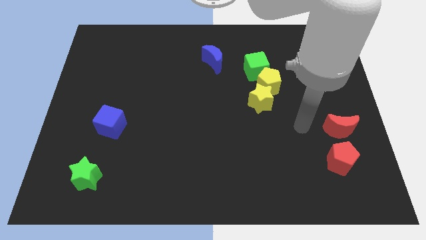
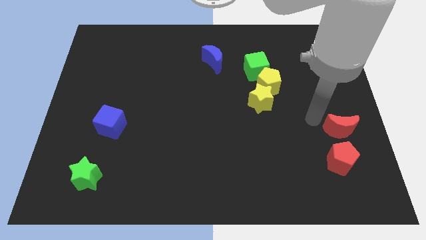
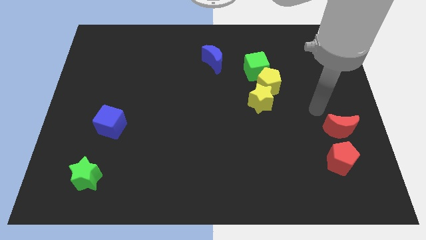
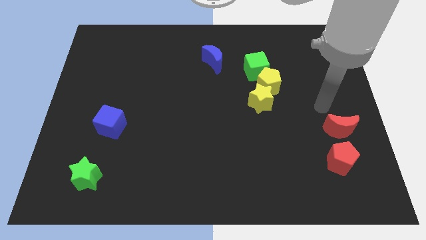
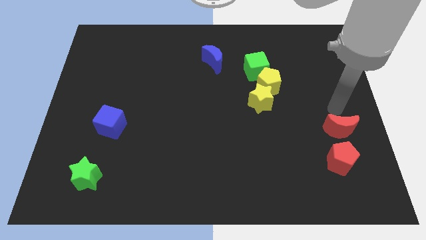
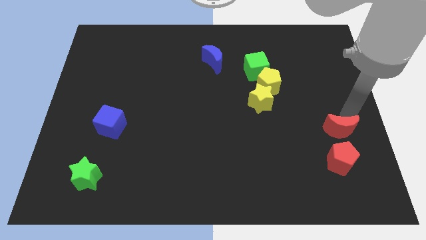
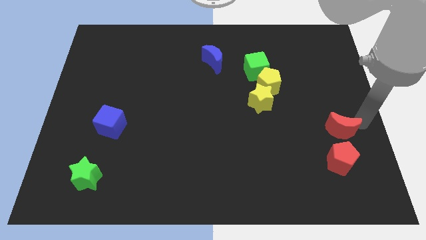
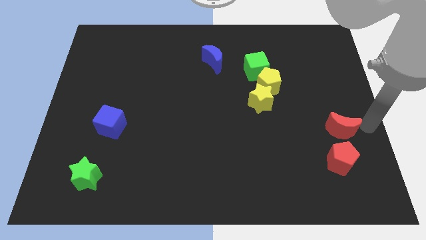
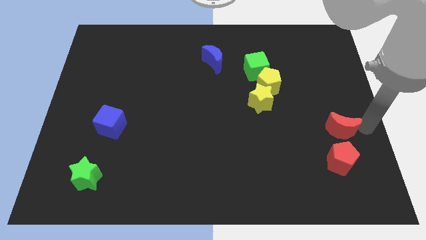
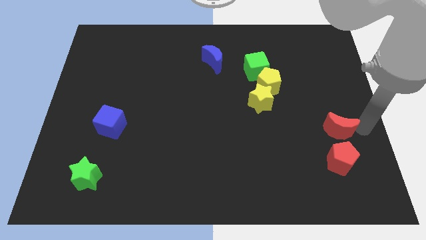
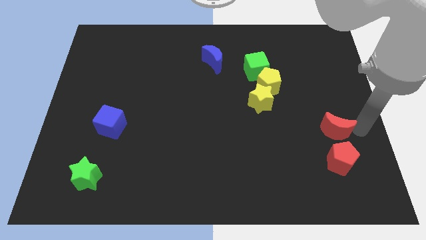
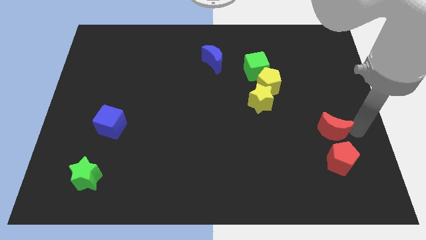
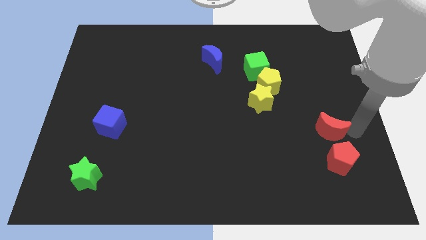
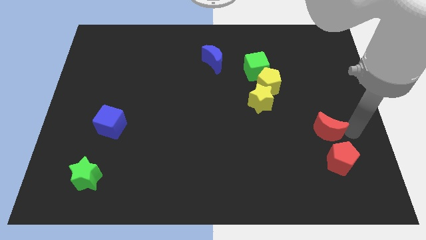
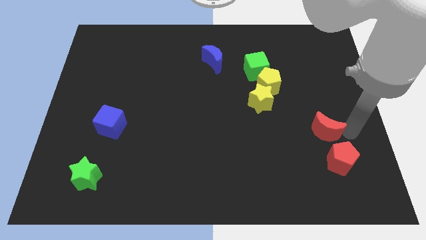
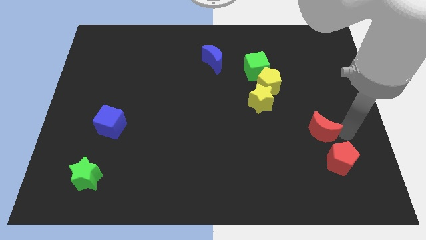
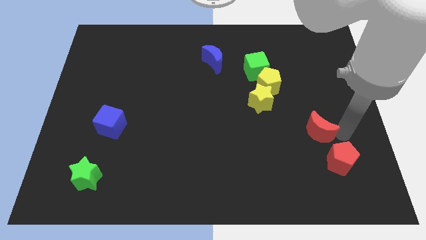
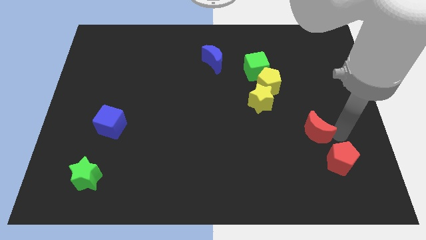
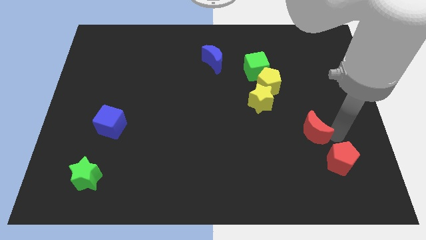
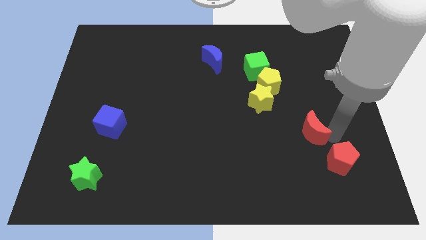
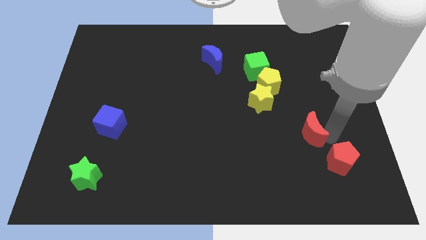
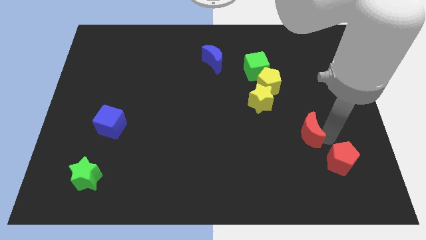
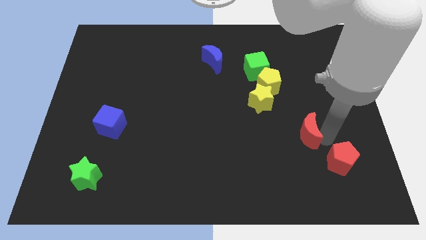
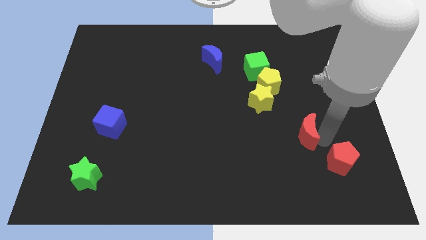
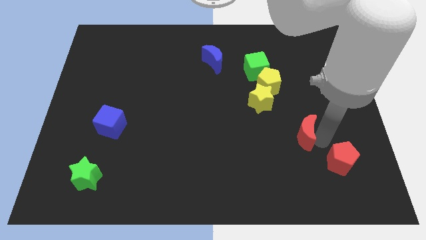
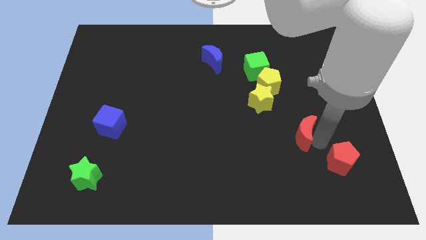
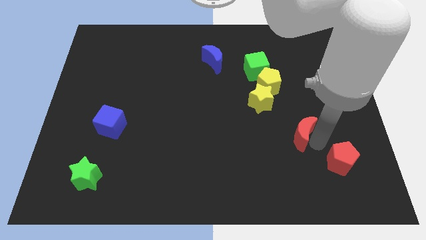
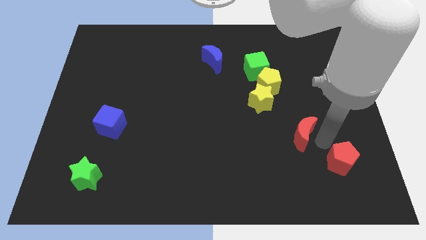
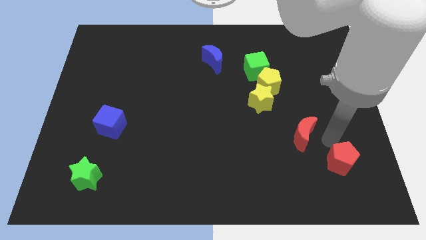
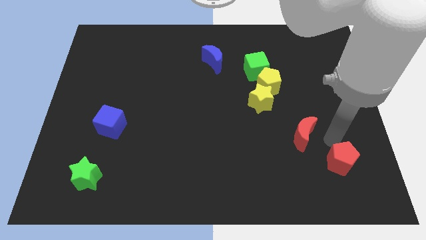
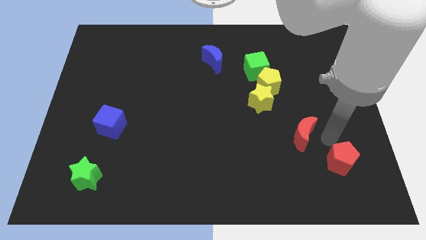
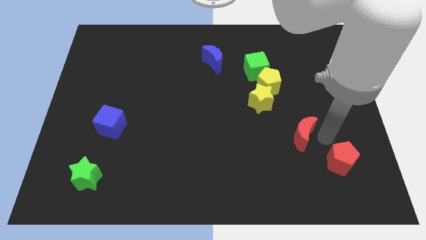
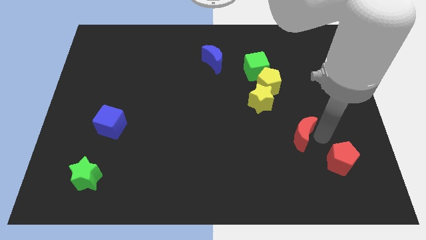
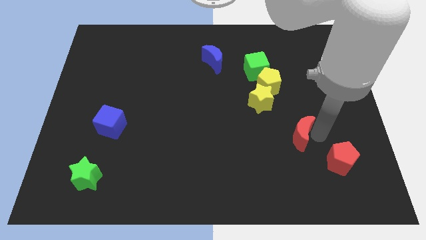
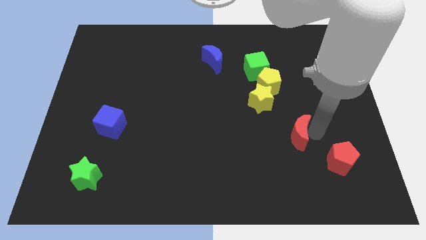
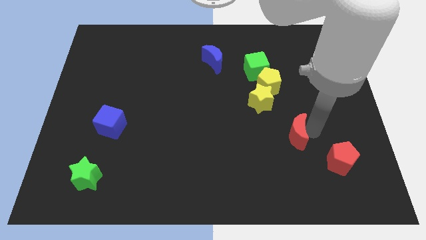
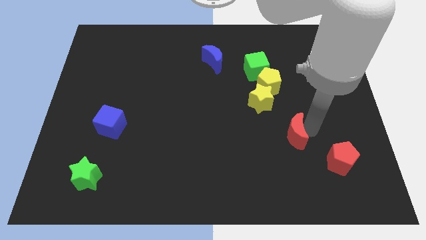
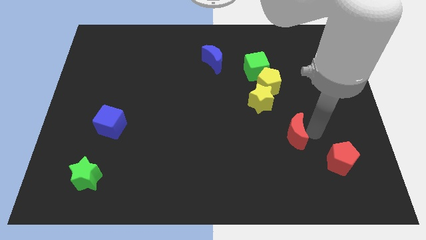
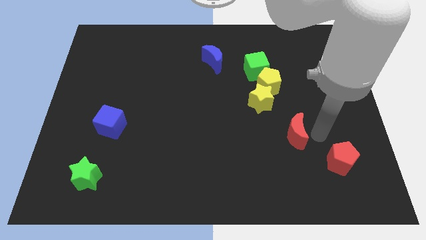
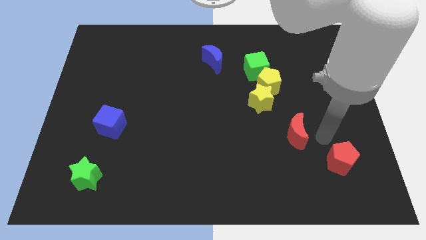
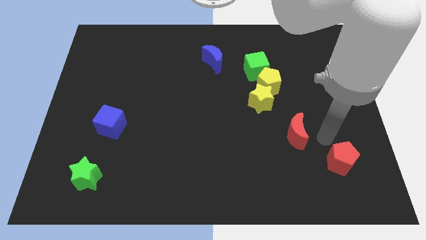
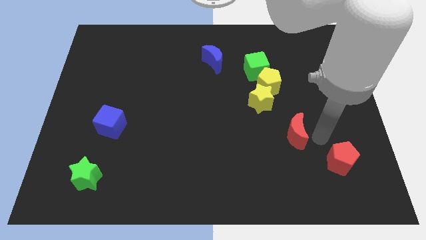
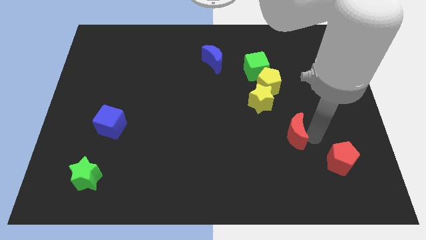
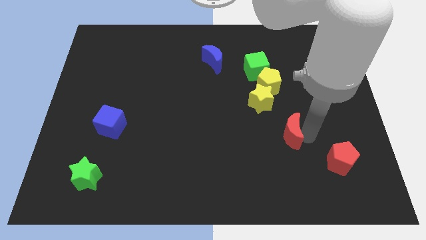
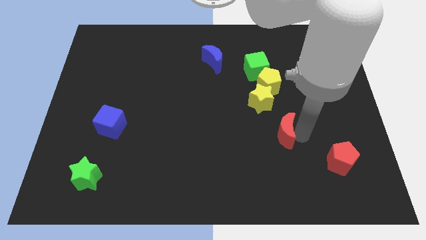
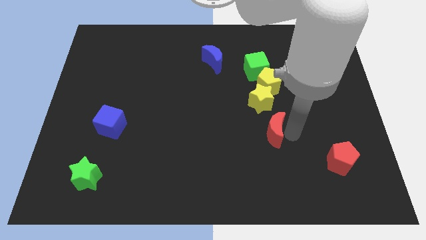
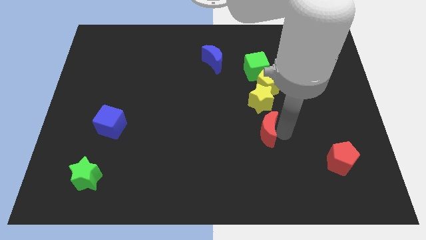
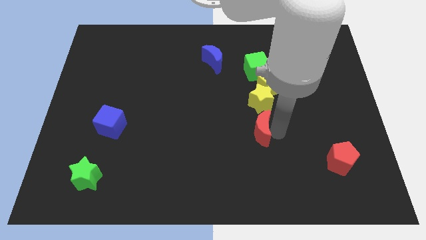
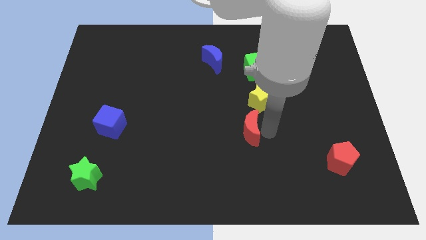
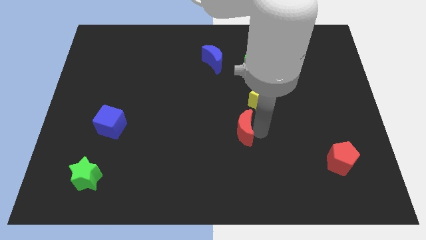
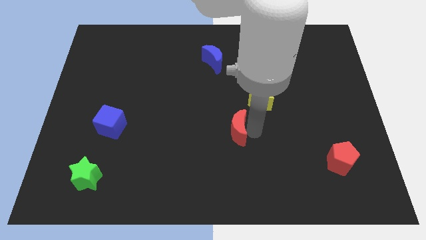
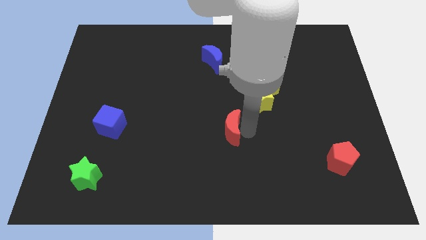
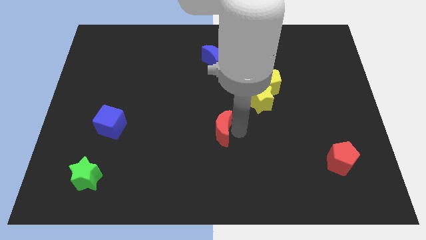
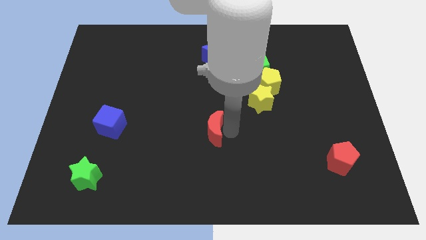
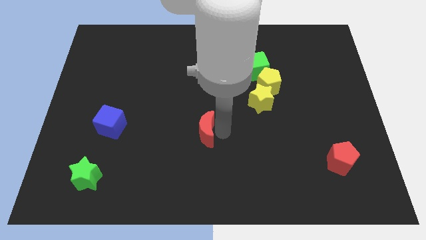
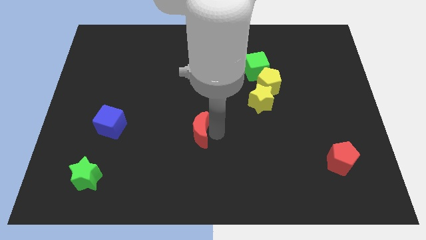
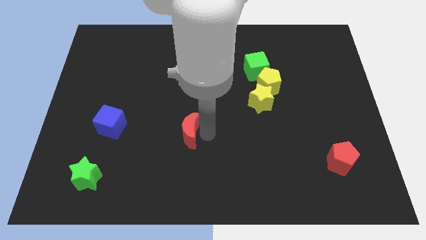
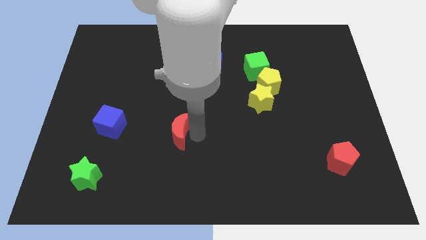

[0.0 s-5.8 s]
move the red moon just right of the blue cube

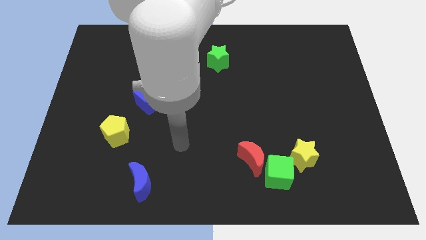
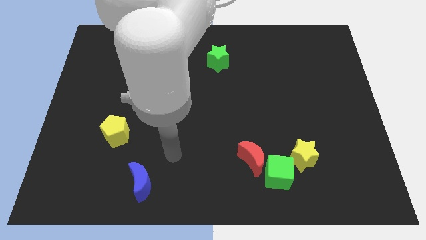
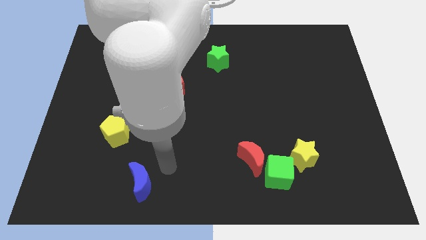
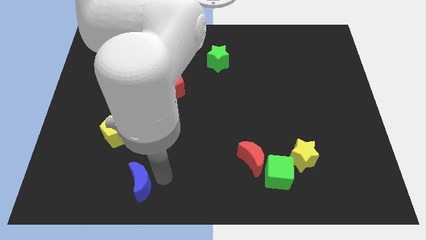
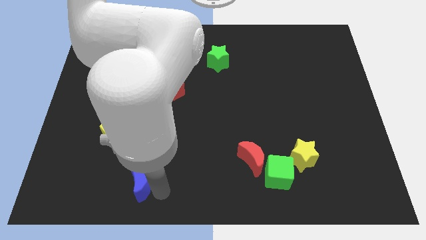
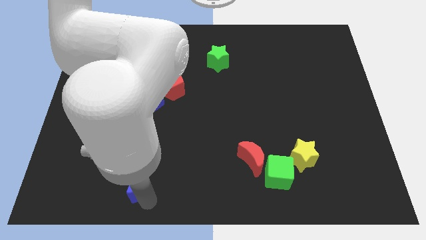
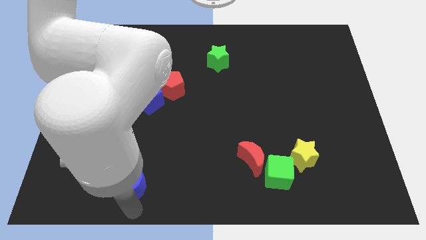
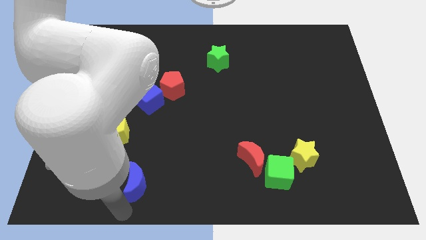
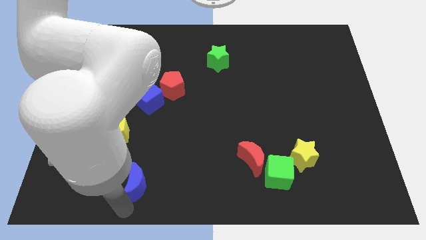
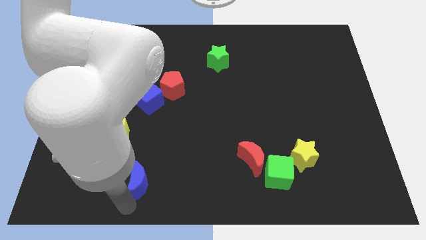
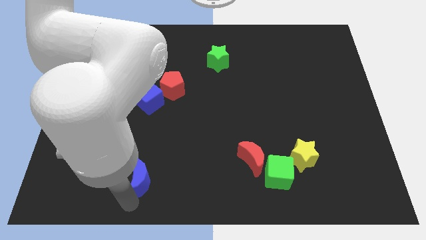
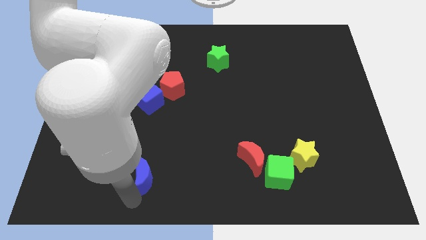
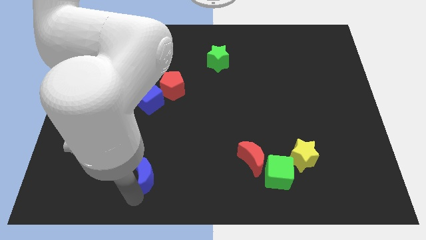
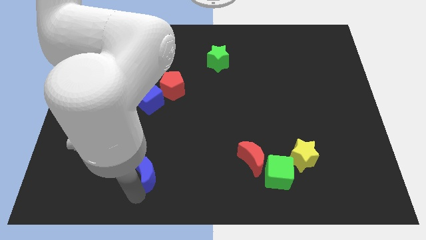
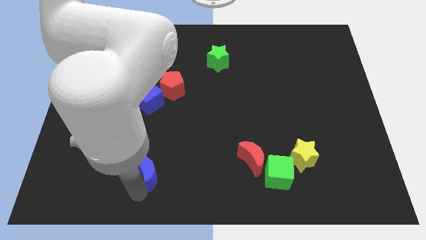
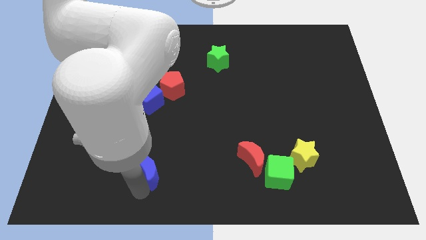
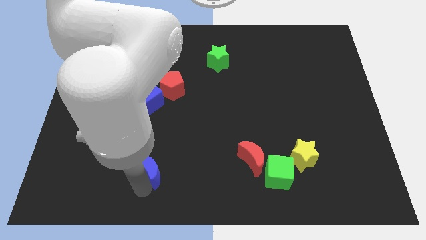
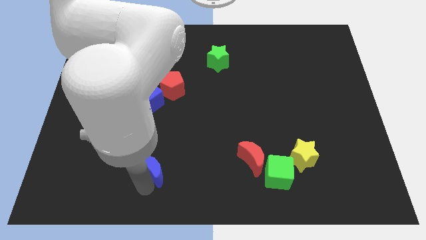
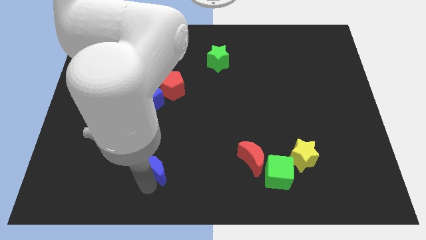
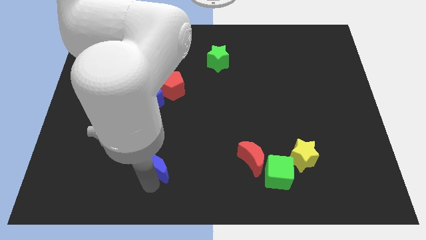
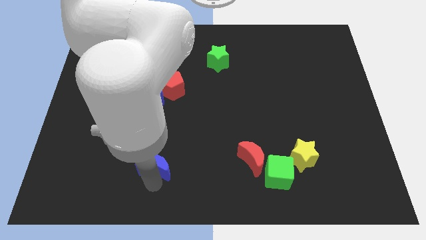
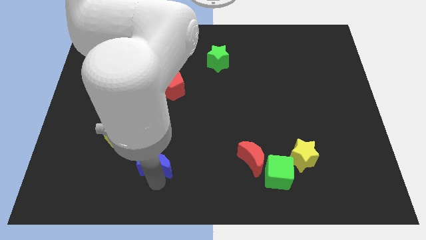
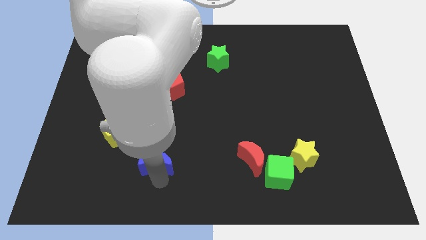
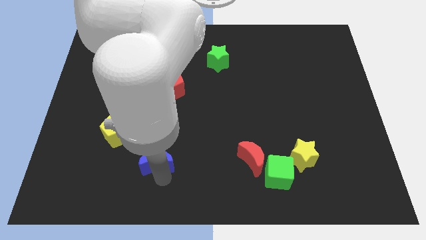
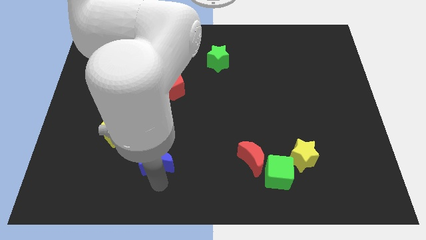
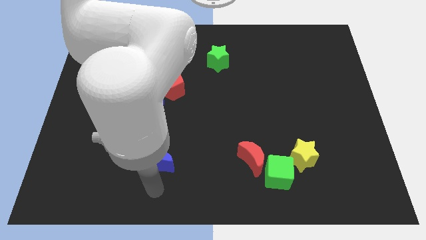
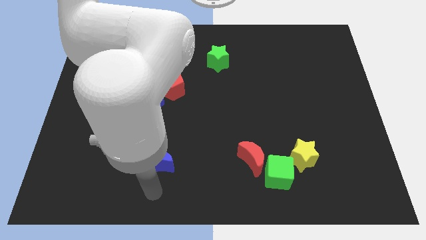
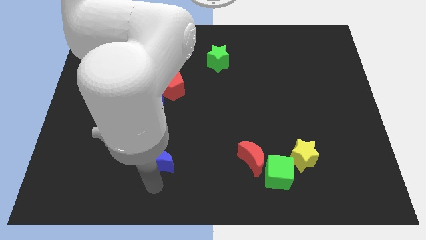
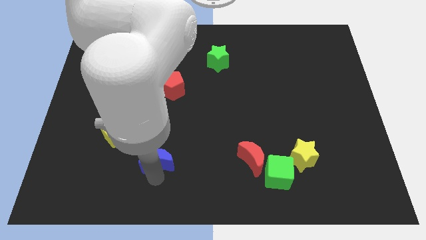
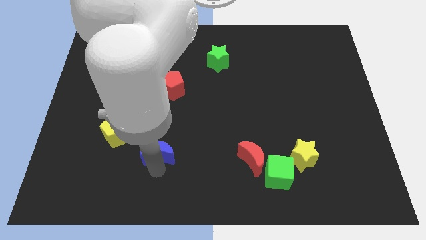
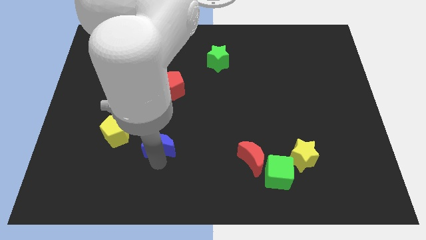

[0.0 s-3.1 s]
slide the blue moon just right of the yellow pentagon
